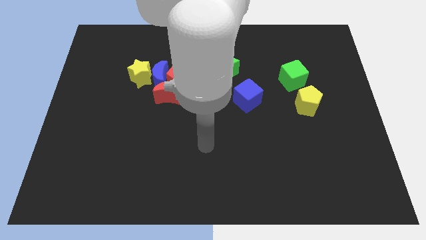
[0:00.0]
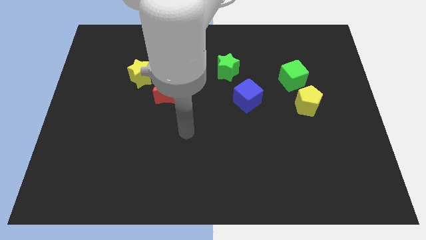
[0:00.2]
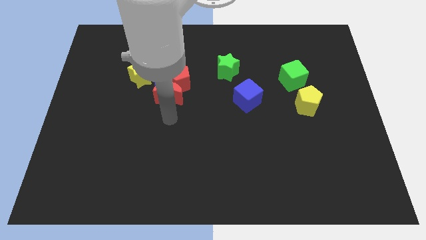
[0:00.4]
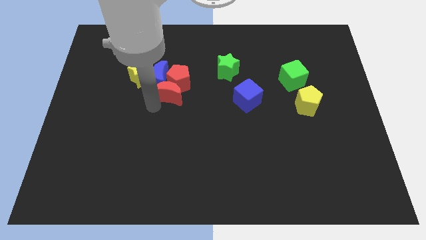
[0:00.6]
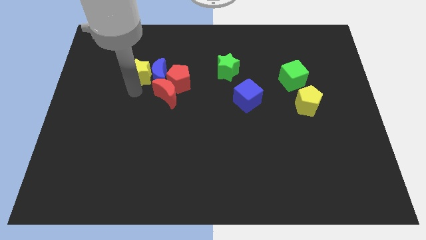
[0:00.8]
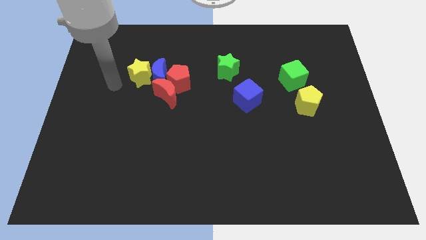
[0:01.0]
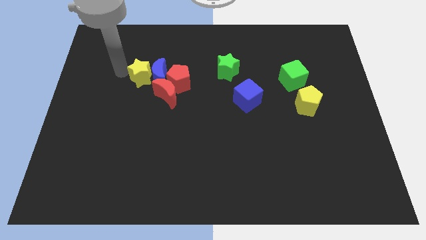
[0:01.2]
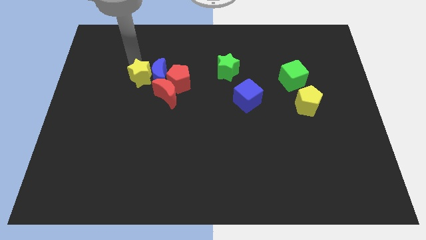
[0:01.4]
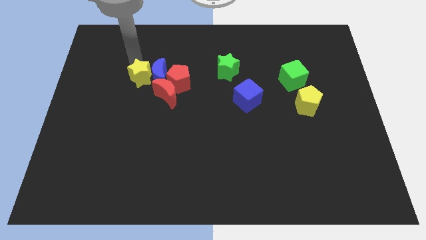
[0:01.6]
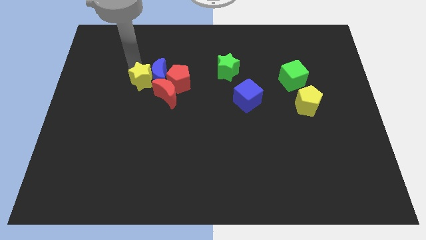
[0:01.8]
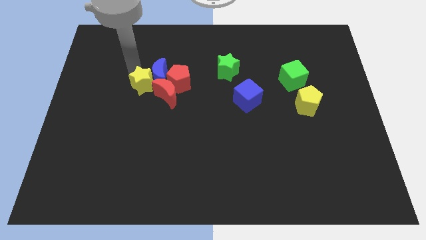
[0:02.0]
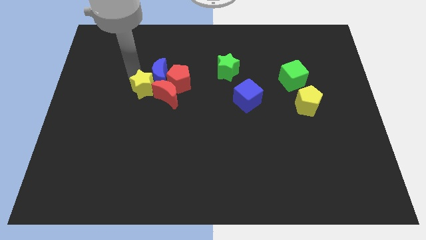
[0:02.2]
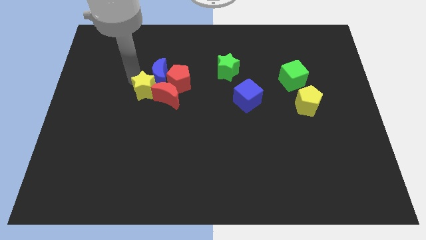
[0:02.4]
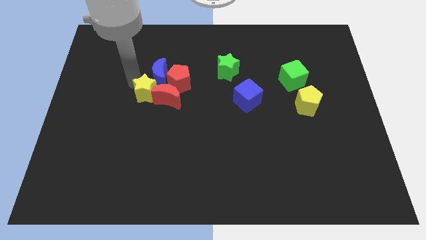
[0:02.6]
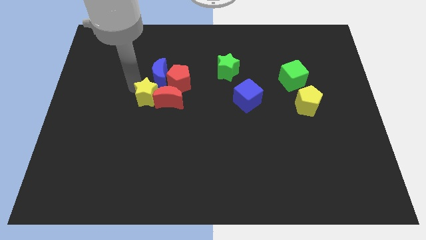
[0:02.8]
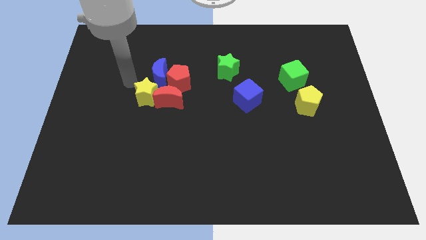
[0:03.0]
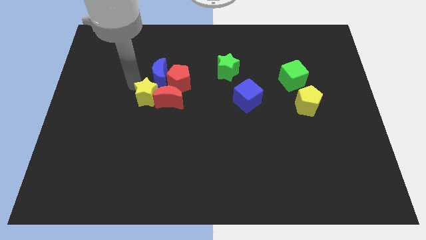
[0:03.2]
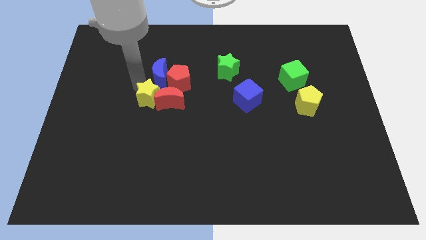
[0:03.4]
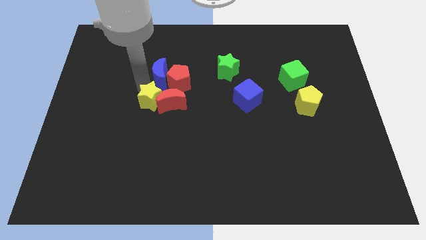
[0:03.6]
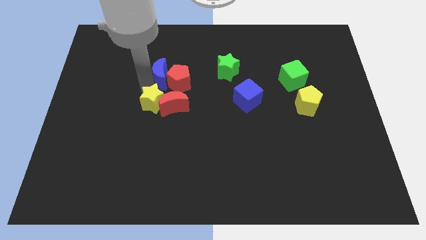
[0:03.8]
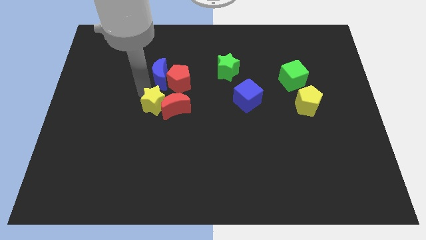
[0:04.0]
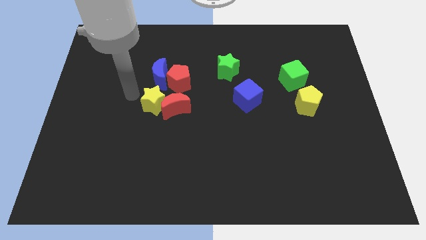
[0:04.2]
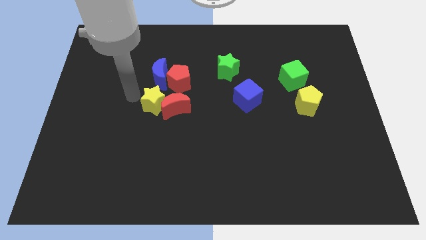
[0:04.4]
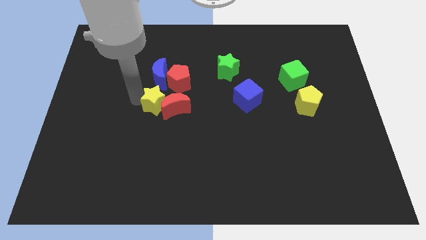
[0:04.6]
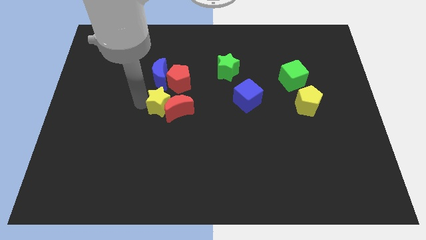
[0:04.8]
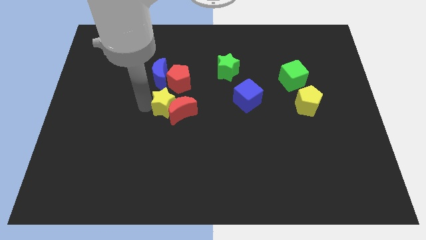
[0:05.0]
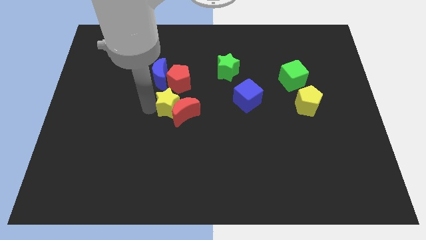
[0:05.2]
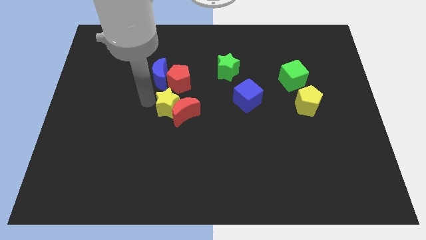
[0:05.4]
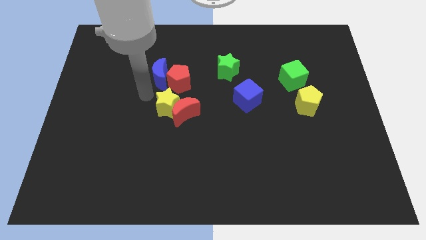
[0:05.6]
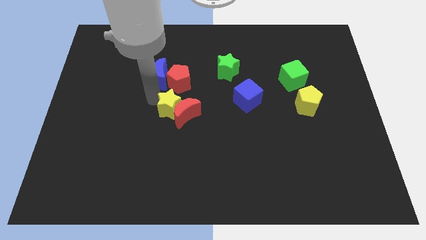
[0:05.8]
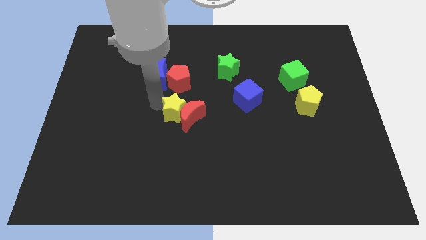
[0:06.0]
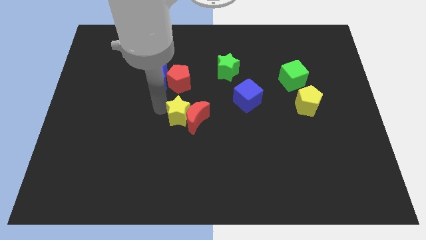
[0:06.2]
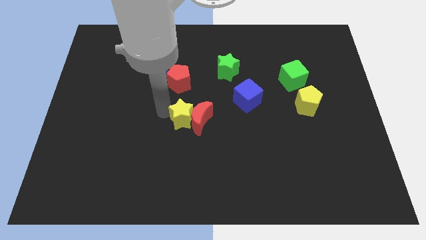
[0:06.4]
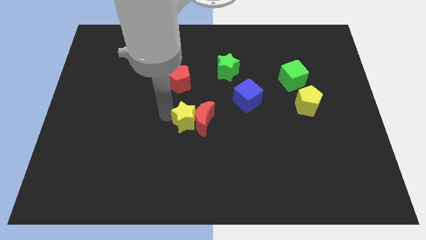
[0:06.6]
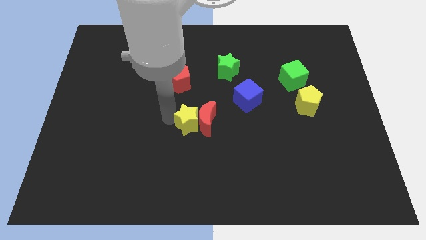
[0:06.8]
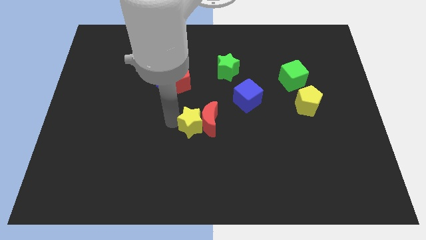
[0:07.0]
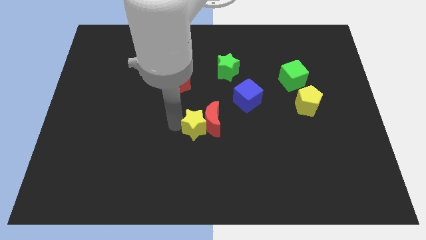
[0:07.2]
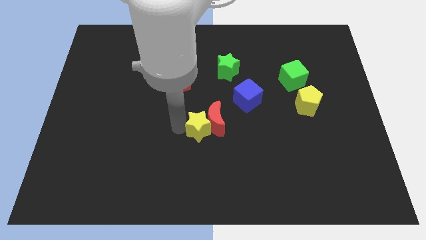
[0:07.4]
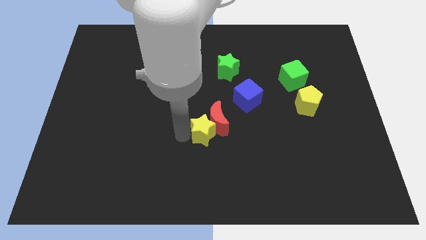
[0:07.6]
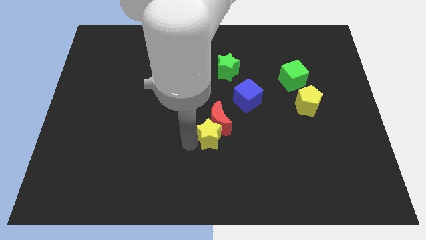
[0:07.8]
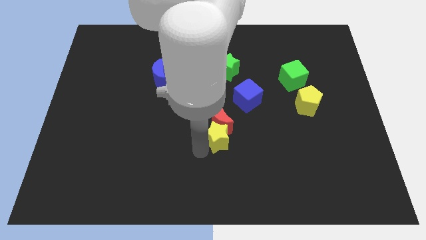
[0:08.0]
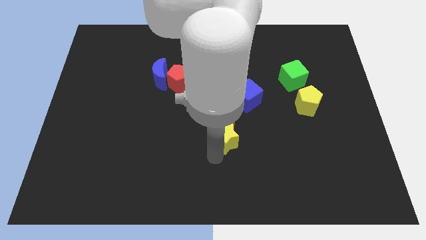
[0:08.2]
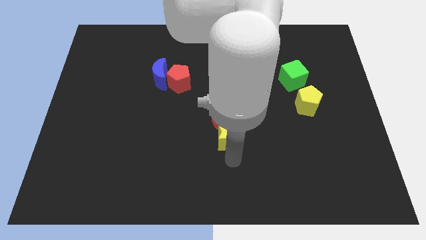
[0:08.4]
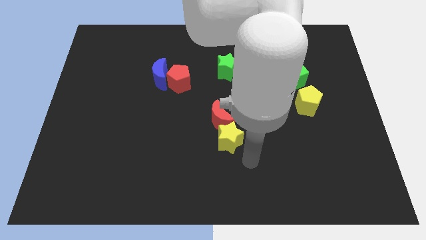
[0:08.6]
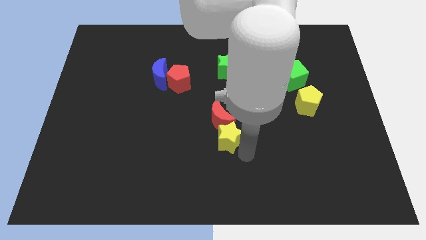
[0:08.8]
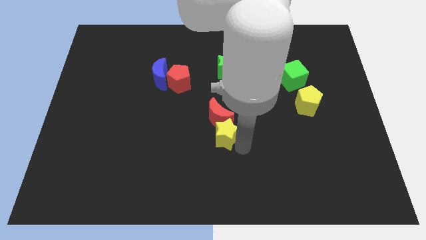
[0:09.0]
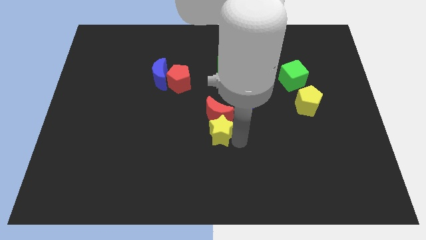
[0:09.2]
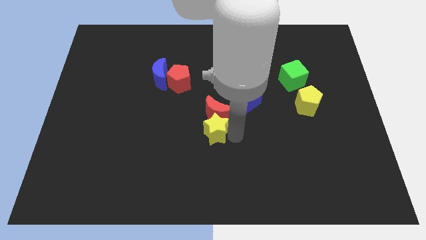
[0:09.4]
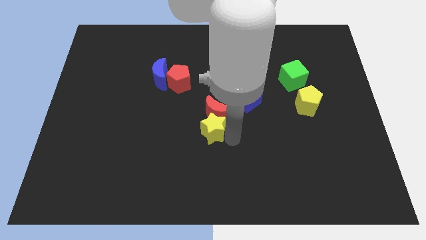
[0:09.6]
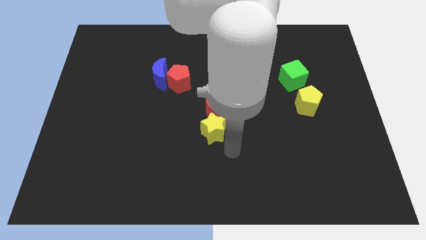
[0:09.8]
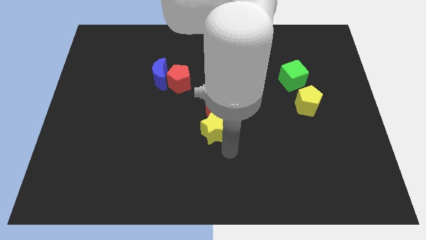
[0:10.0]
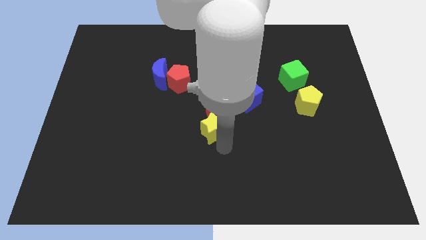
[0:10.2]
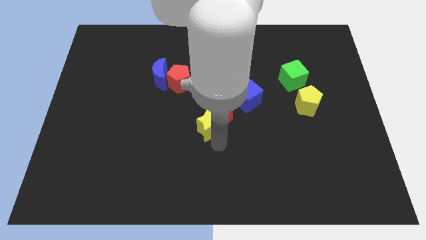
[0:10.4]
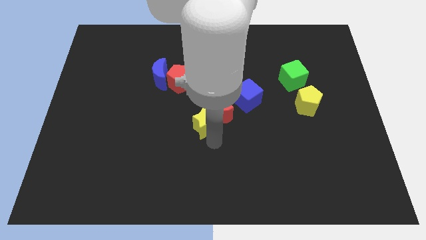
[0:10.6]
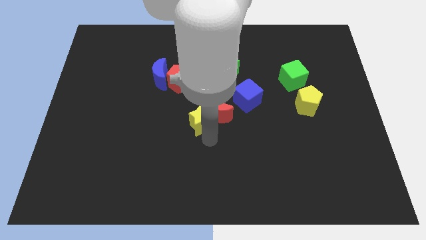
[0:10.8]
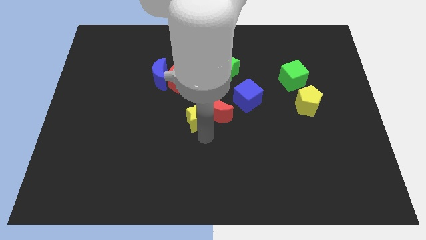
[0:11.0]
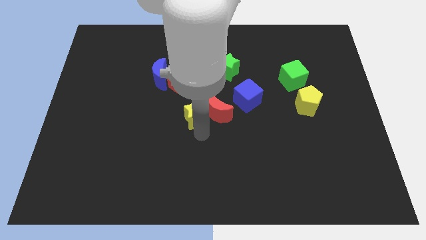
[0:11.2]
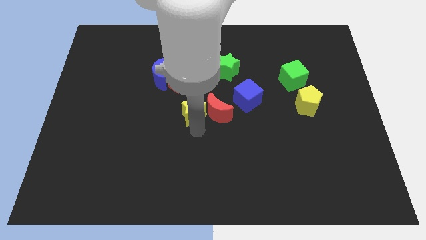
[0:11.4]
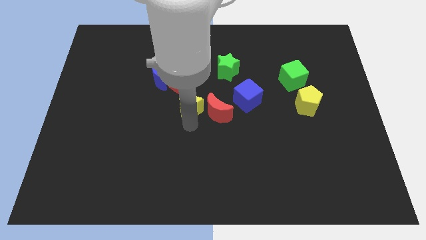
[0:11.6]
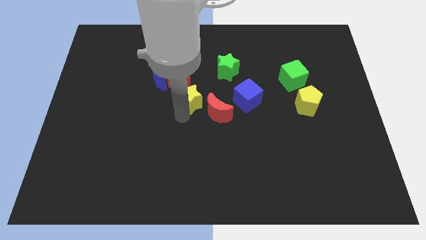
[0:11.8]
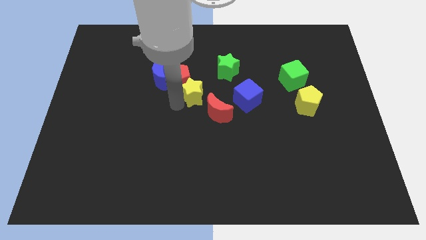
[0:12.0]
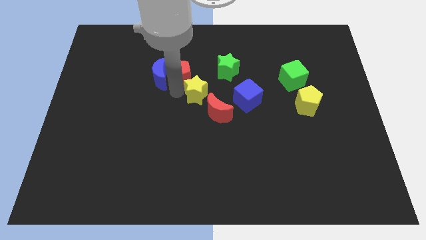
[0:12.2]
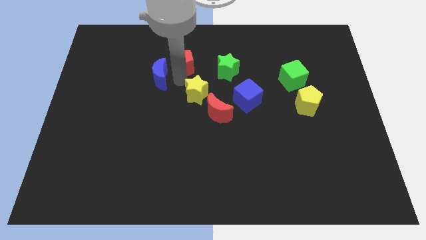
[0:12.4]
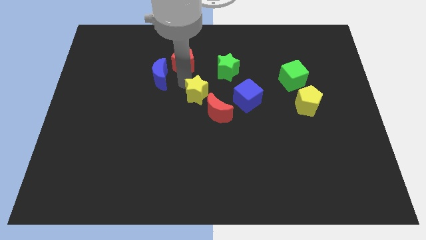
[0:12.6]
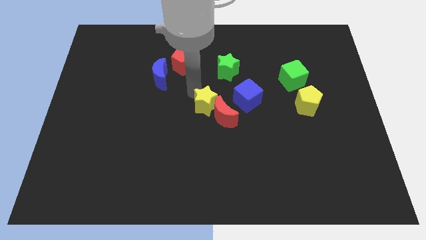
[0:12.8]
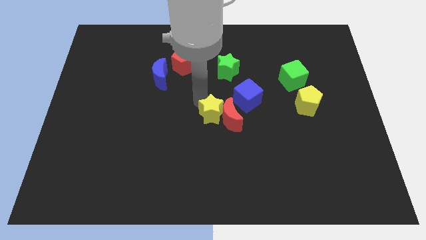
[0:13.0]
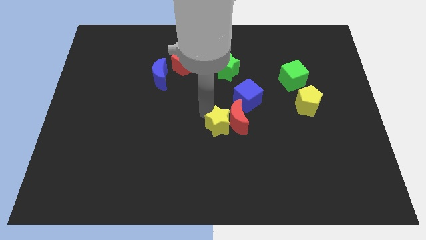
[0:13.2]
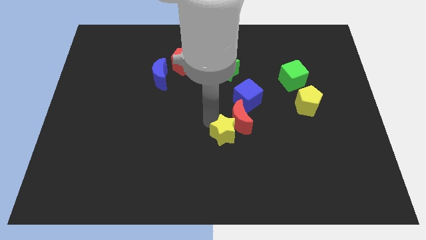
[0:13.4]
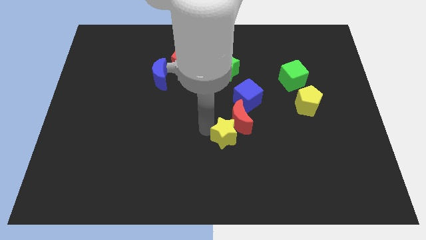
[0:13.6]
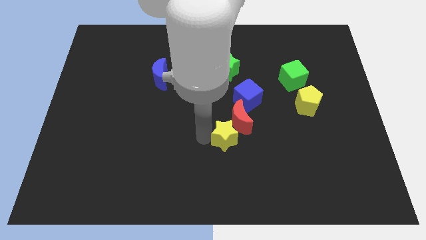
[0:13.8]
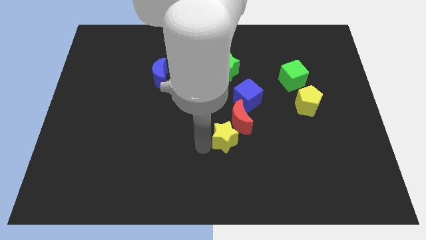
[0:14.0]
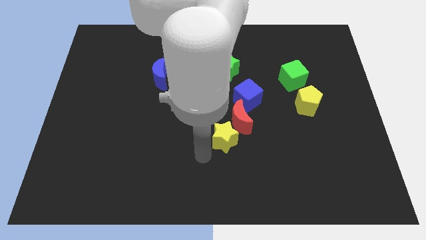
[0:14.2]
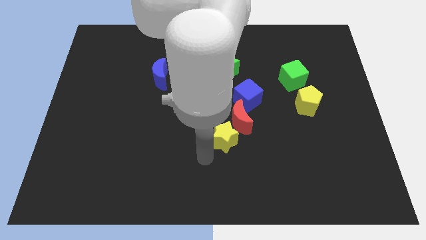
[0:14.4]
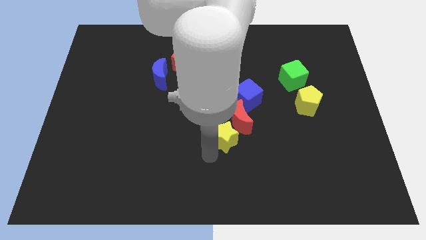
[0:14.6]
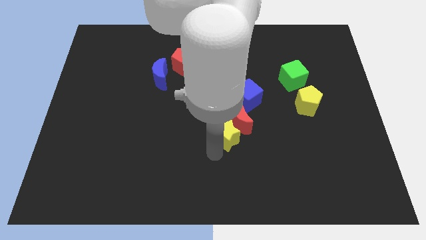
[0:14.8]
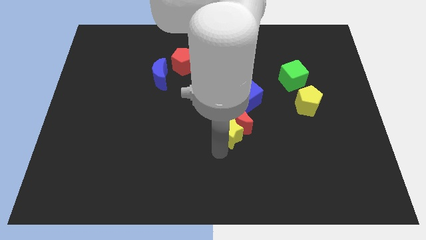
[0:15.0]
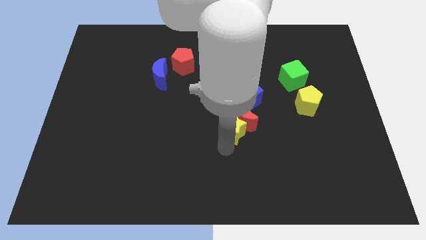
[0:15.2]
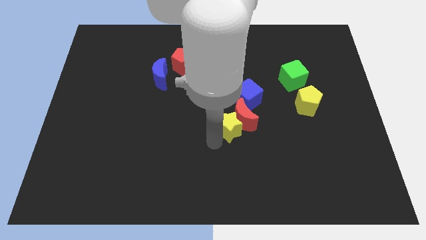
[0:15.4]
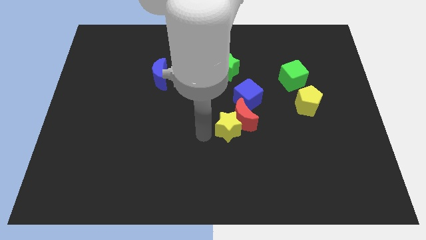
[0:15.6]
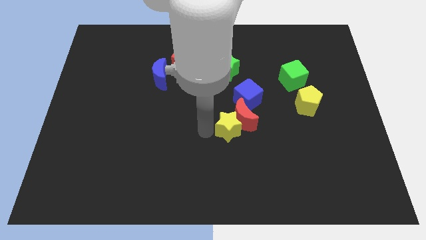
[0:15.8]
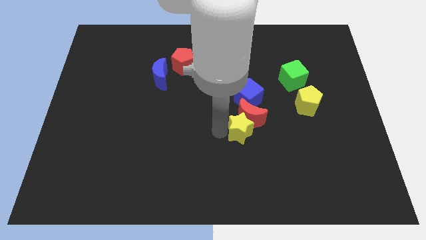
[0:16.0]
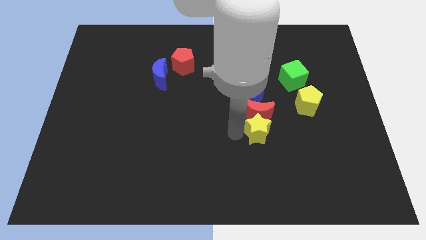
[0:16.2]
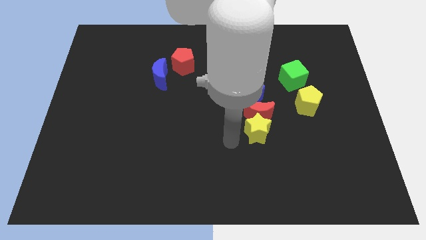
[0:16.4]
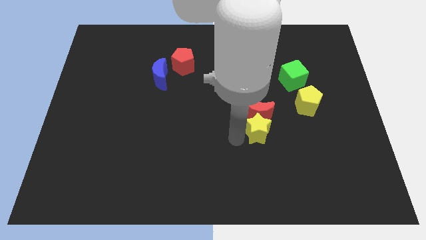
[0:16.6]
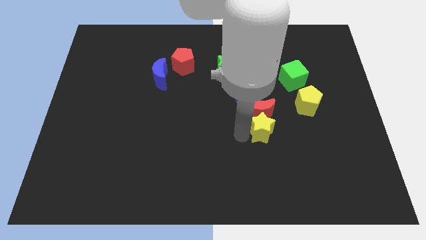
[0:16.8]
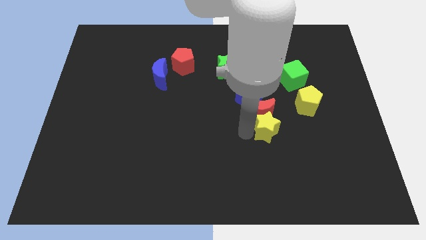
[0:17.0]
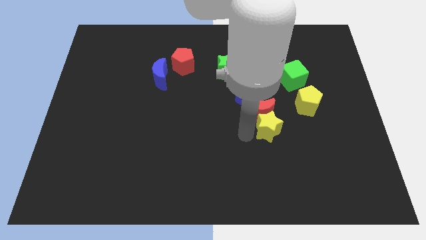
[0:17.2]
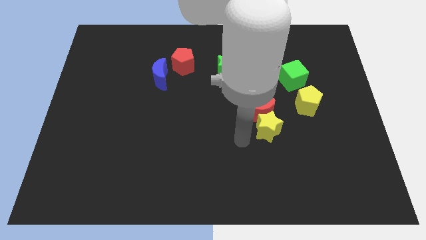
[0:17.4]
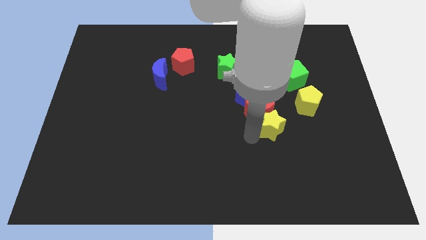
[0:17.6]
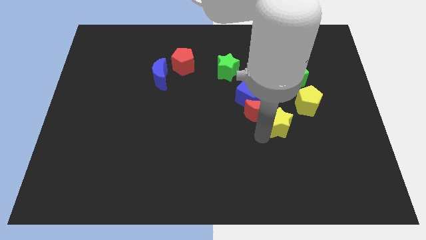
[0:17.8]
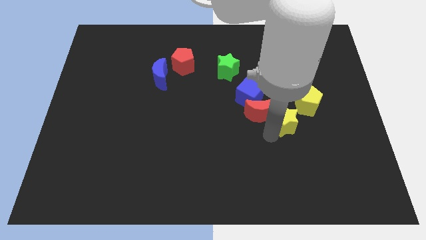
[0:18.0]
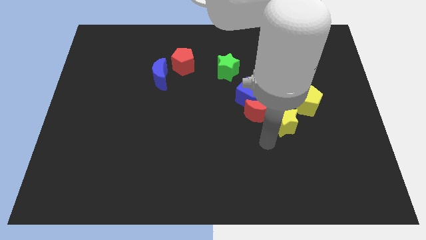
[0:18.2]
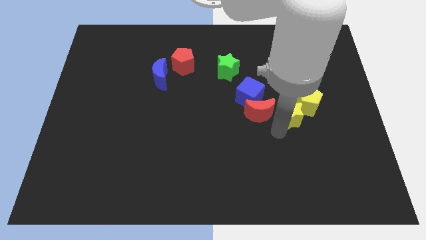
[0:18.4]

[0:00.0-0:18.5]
put the yellow star next to the yellow pentagon
